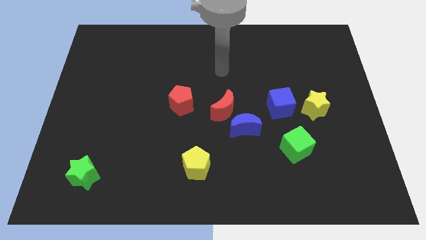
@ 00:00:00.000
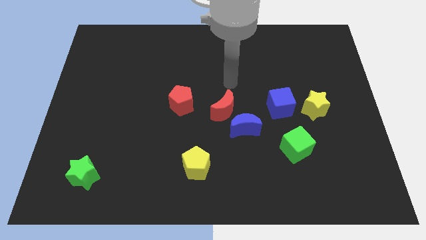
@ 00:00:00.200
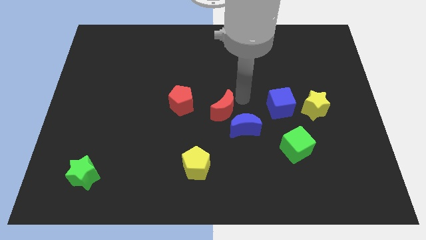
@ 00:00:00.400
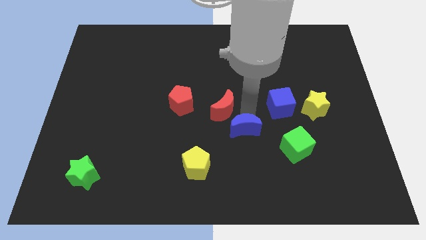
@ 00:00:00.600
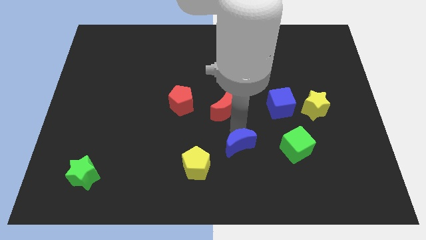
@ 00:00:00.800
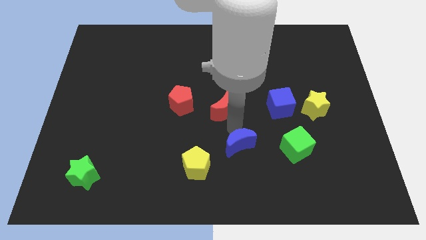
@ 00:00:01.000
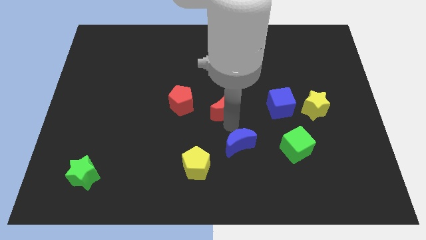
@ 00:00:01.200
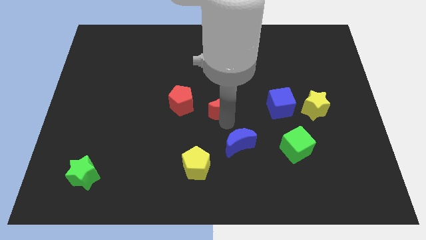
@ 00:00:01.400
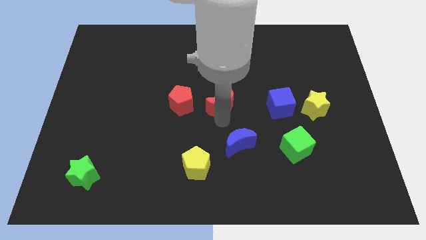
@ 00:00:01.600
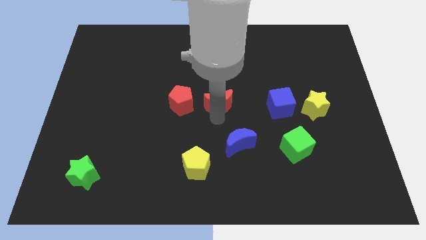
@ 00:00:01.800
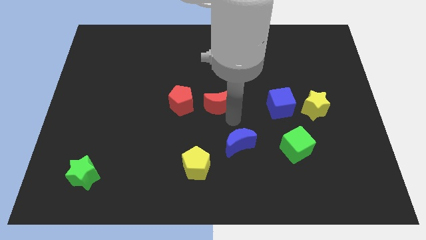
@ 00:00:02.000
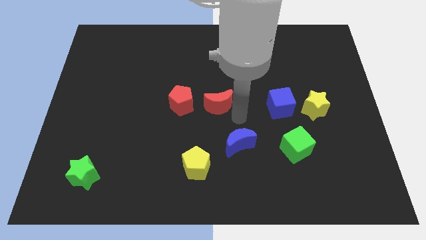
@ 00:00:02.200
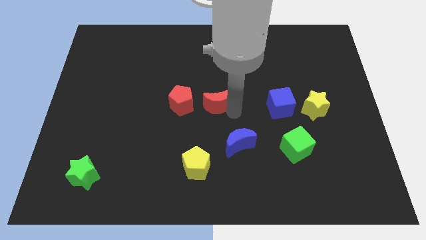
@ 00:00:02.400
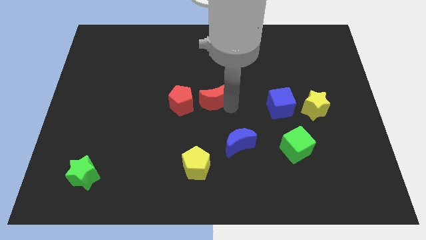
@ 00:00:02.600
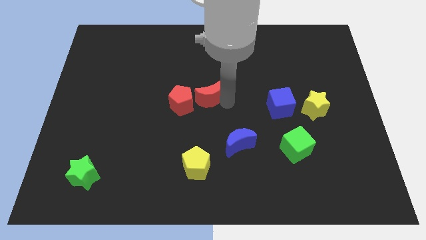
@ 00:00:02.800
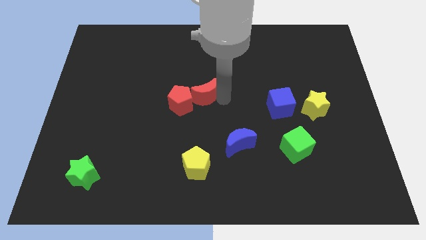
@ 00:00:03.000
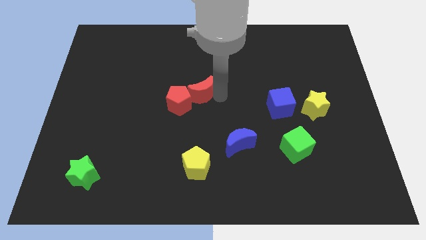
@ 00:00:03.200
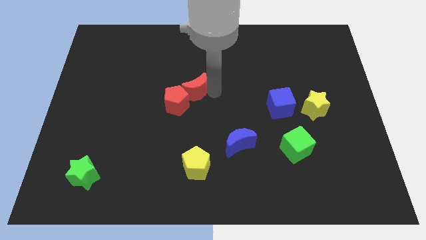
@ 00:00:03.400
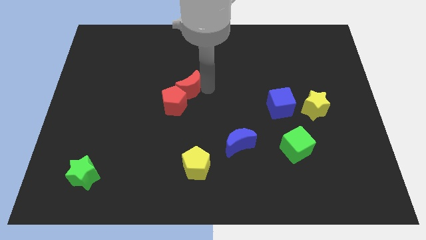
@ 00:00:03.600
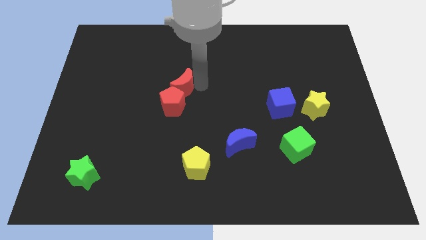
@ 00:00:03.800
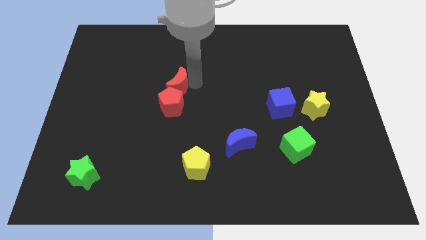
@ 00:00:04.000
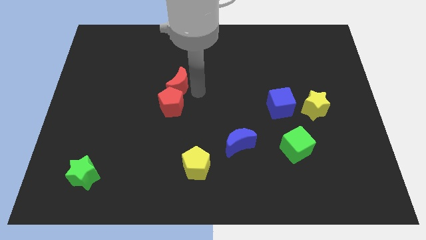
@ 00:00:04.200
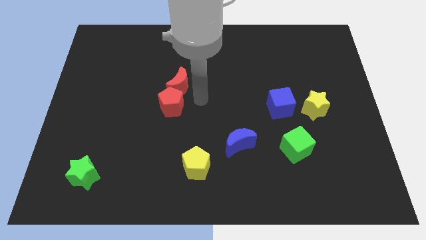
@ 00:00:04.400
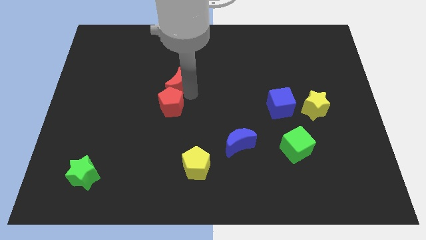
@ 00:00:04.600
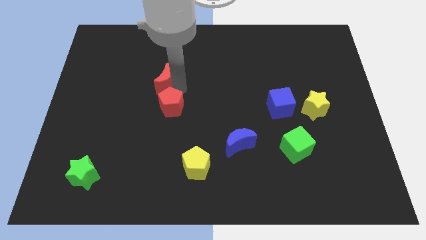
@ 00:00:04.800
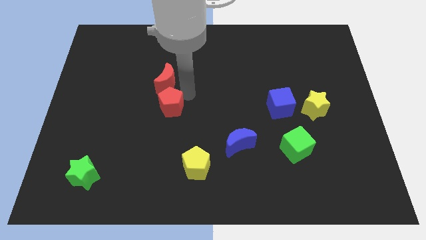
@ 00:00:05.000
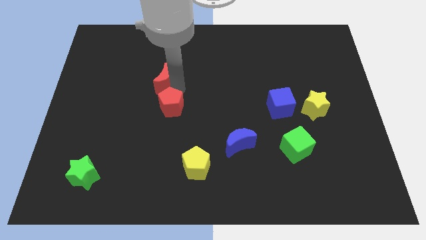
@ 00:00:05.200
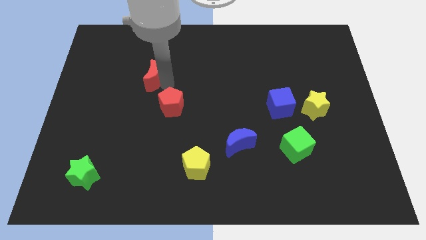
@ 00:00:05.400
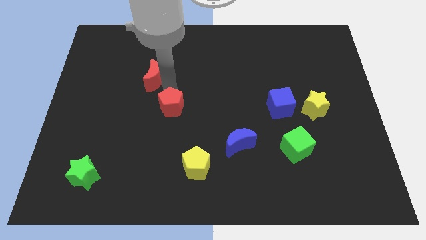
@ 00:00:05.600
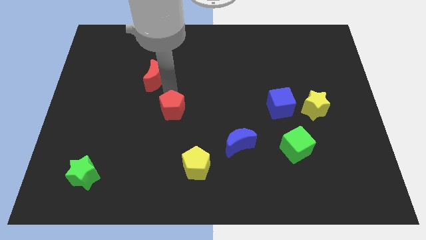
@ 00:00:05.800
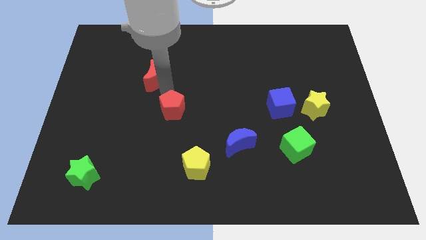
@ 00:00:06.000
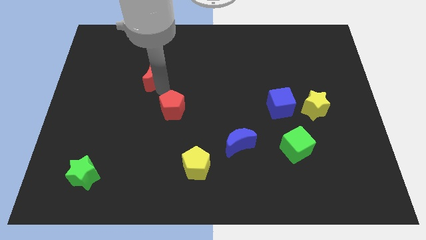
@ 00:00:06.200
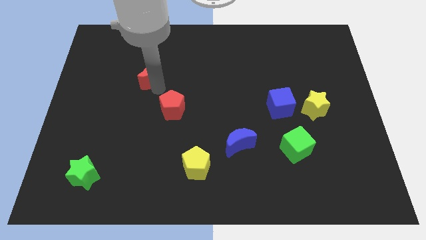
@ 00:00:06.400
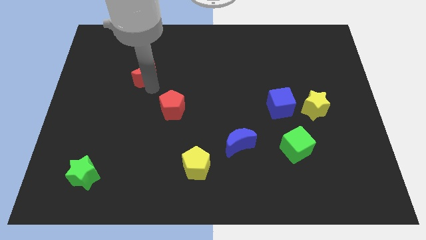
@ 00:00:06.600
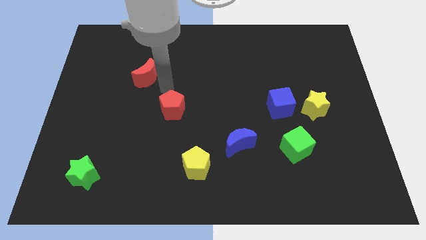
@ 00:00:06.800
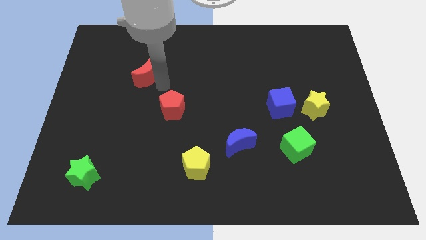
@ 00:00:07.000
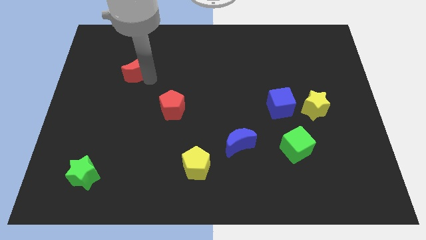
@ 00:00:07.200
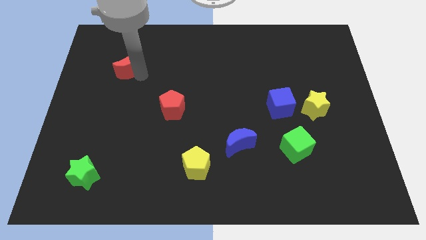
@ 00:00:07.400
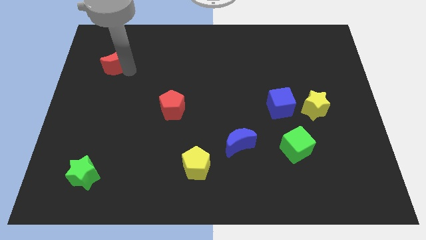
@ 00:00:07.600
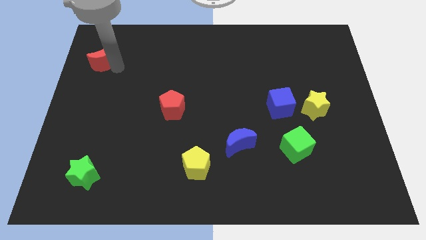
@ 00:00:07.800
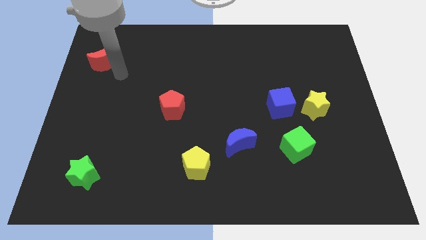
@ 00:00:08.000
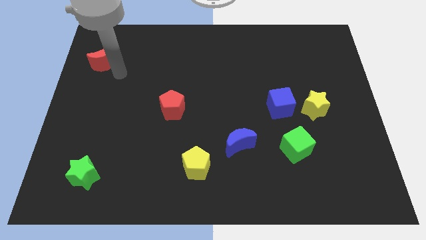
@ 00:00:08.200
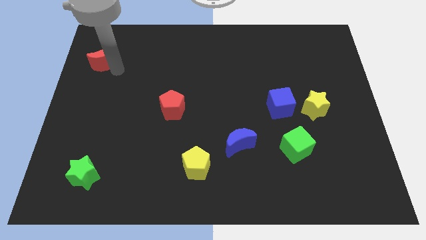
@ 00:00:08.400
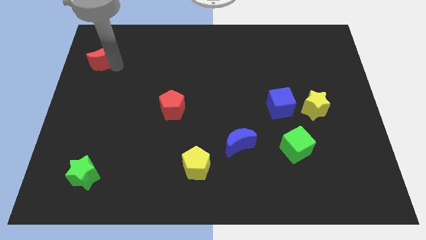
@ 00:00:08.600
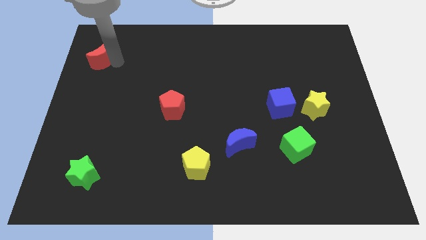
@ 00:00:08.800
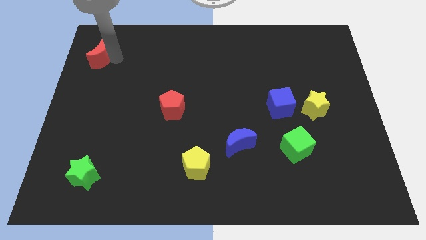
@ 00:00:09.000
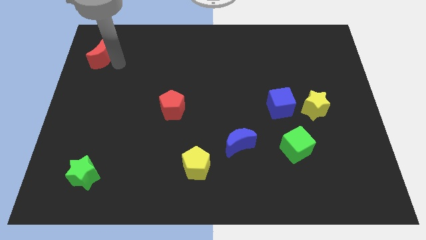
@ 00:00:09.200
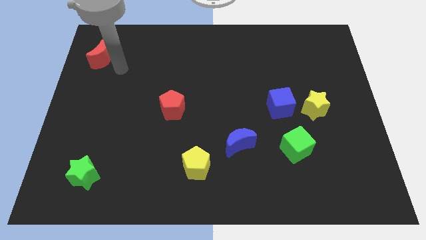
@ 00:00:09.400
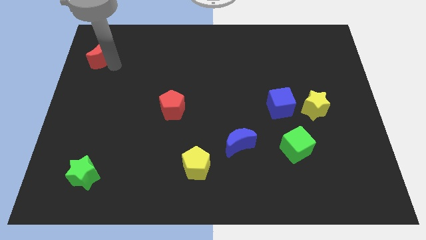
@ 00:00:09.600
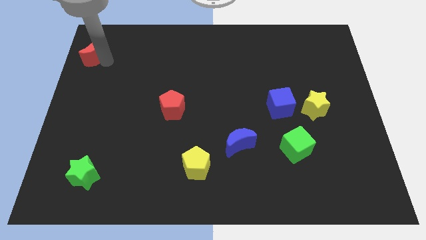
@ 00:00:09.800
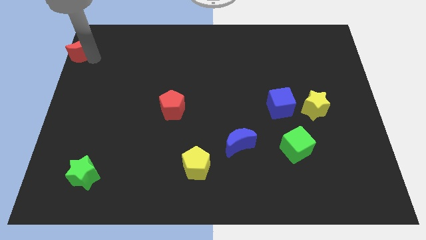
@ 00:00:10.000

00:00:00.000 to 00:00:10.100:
put the red moon to the top left

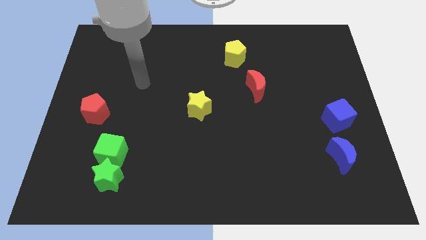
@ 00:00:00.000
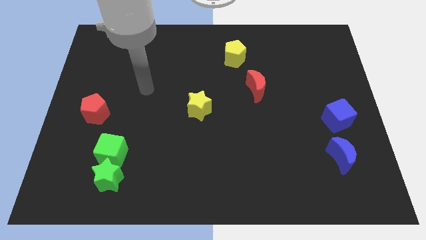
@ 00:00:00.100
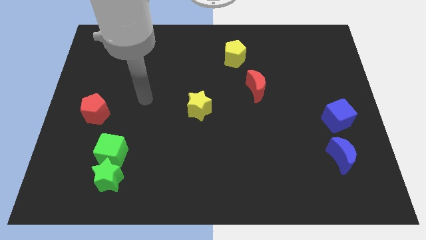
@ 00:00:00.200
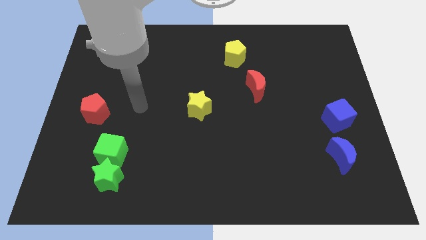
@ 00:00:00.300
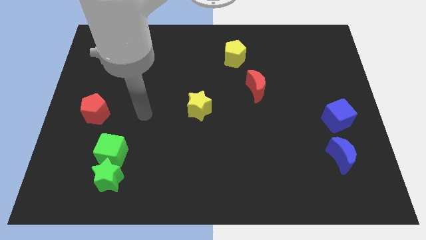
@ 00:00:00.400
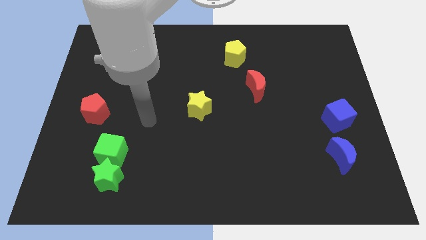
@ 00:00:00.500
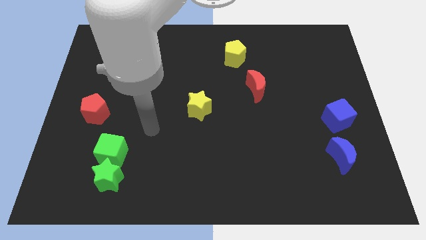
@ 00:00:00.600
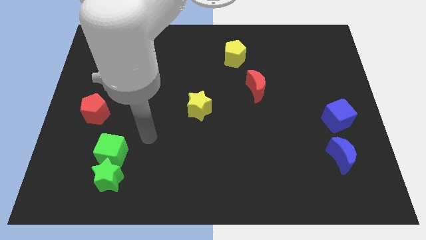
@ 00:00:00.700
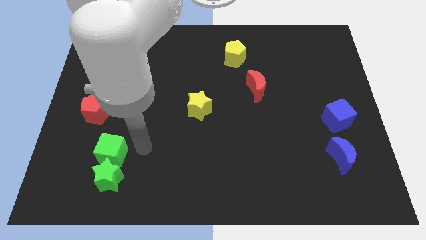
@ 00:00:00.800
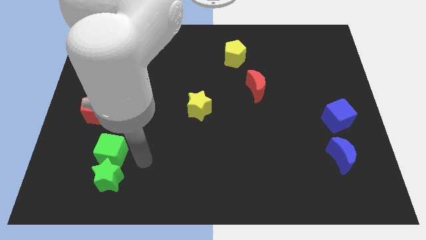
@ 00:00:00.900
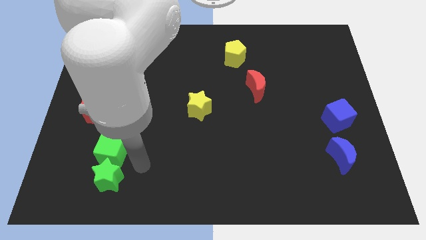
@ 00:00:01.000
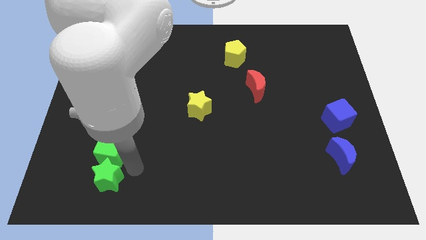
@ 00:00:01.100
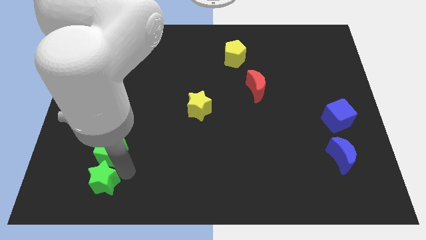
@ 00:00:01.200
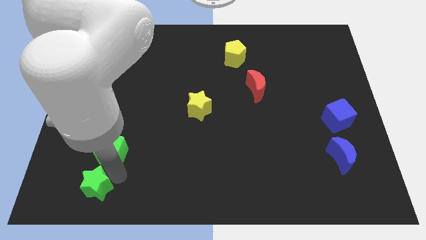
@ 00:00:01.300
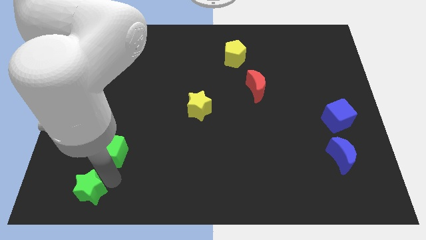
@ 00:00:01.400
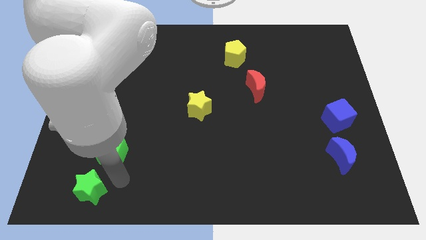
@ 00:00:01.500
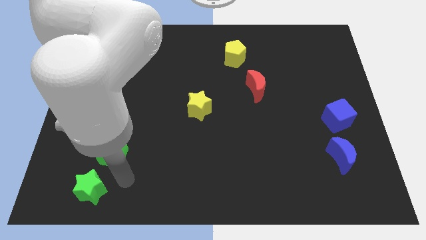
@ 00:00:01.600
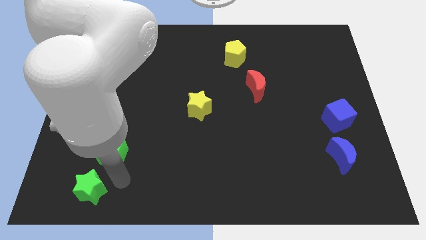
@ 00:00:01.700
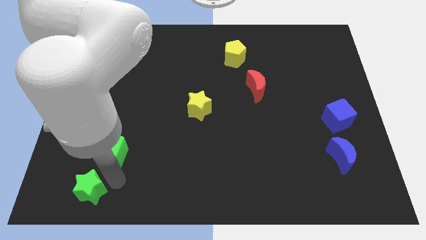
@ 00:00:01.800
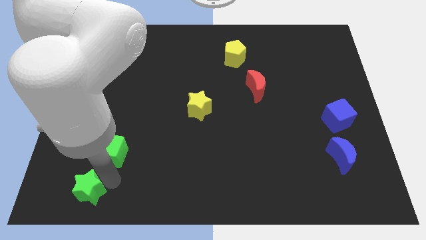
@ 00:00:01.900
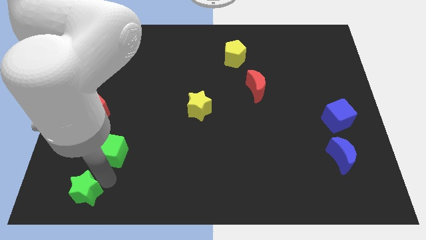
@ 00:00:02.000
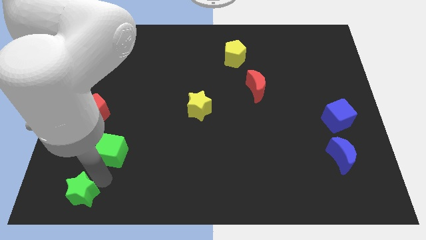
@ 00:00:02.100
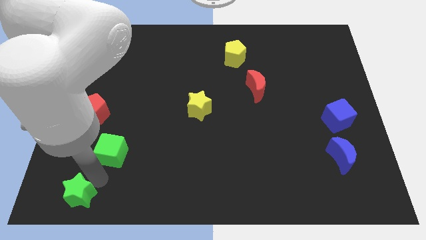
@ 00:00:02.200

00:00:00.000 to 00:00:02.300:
move the green star to the bottom left corner
